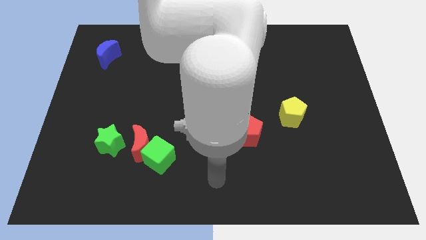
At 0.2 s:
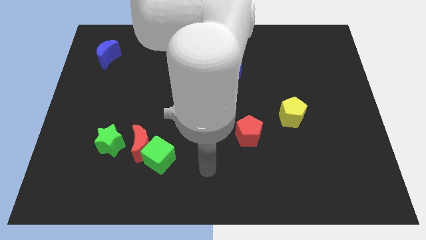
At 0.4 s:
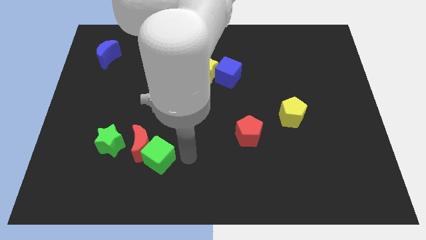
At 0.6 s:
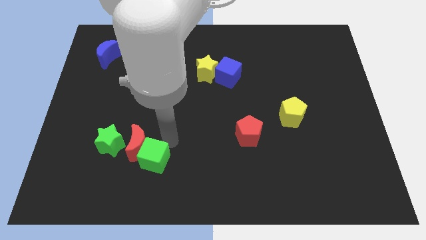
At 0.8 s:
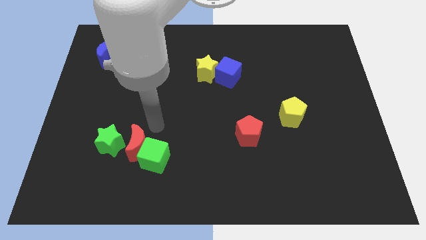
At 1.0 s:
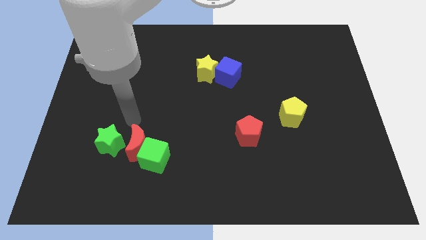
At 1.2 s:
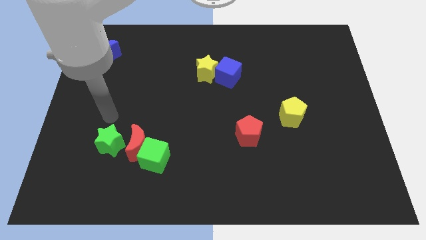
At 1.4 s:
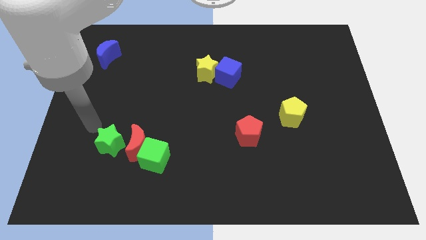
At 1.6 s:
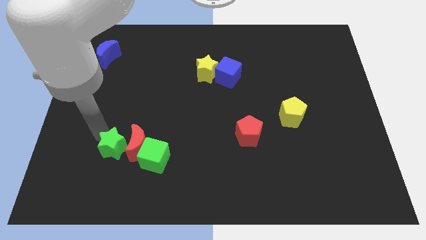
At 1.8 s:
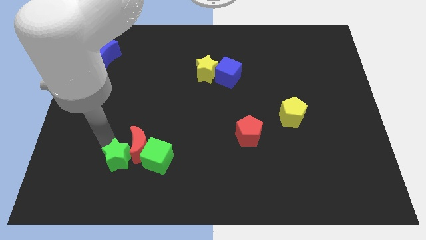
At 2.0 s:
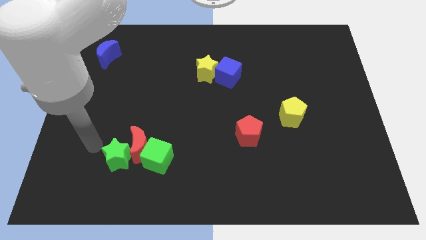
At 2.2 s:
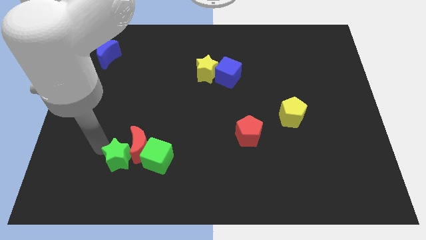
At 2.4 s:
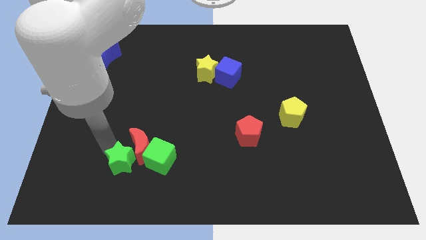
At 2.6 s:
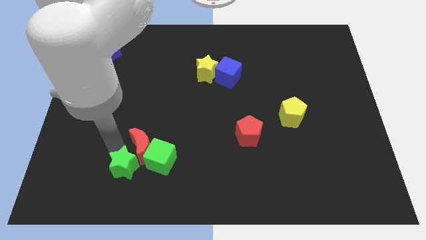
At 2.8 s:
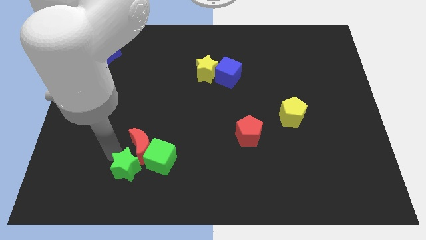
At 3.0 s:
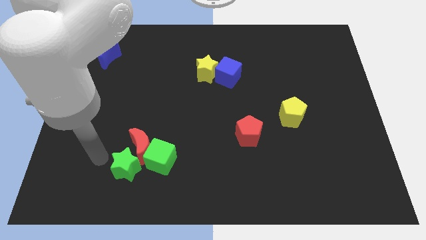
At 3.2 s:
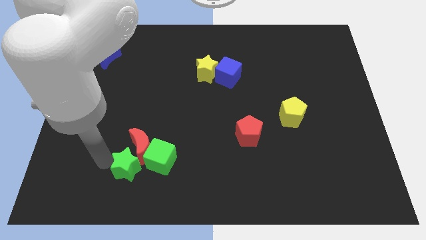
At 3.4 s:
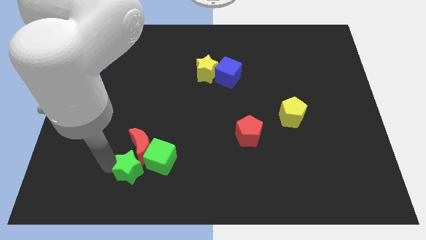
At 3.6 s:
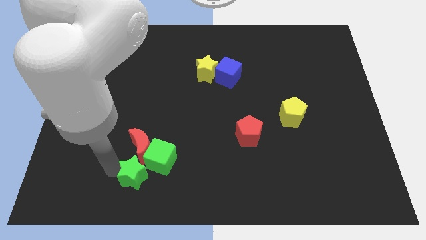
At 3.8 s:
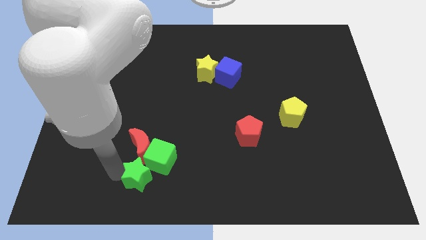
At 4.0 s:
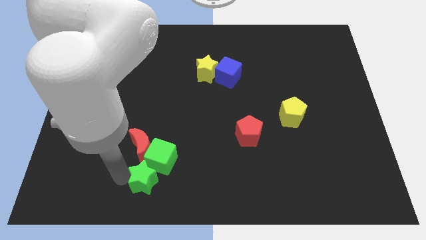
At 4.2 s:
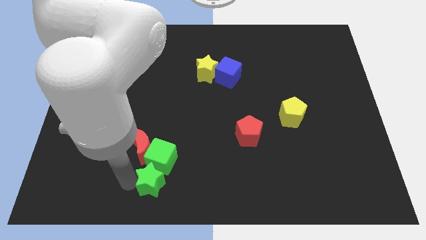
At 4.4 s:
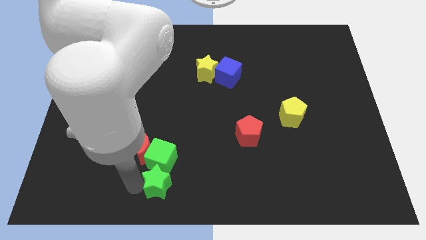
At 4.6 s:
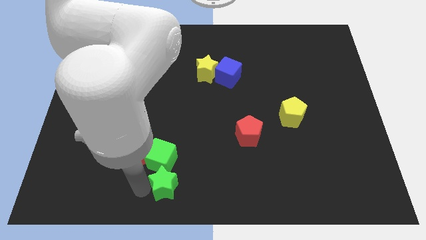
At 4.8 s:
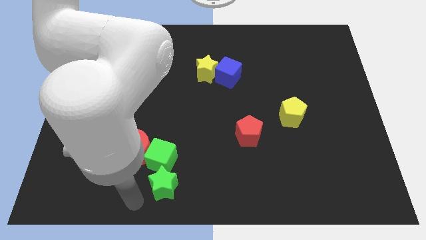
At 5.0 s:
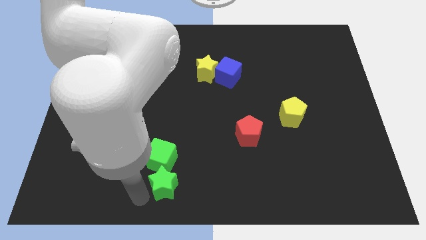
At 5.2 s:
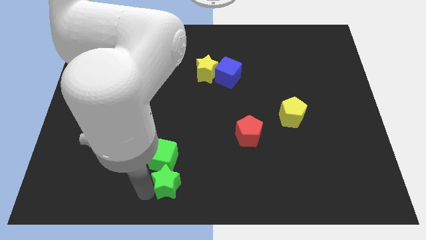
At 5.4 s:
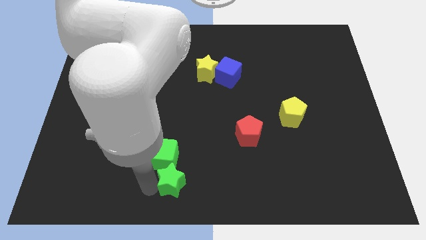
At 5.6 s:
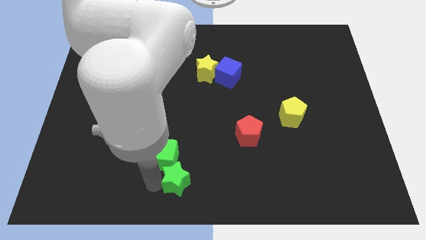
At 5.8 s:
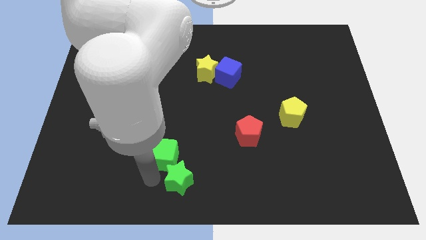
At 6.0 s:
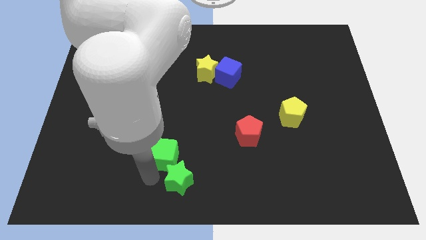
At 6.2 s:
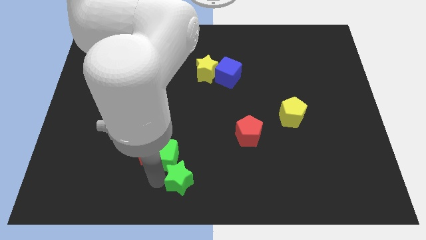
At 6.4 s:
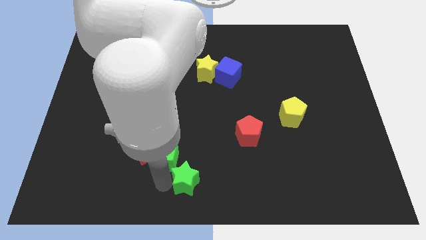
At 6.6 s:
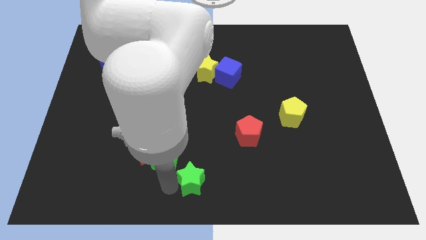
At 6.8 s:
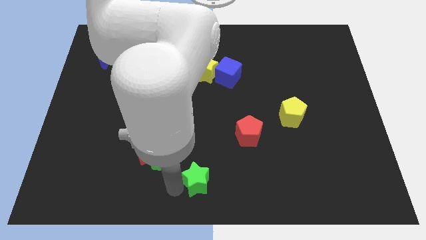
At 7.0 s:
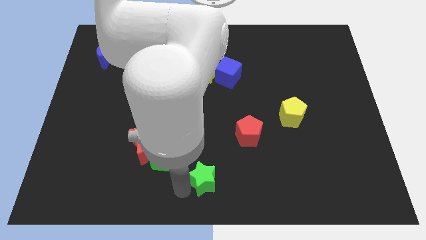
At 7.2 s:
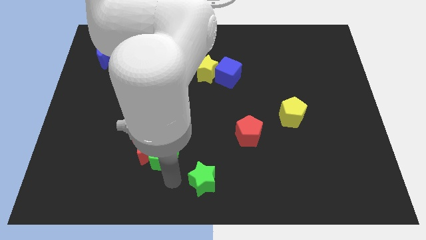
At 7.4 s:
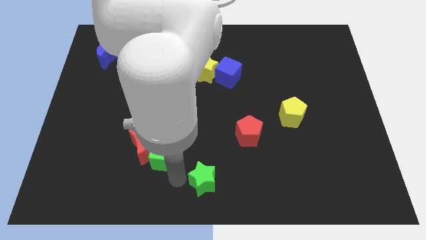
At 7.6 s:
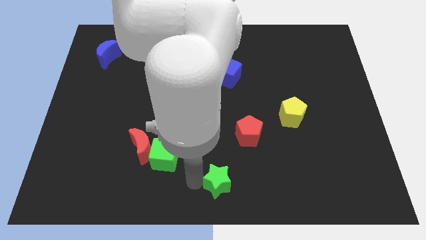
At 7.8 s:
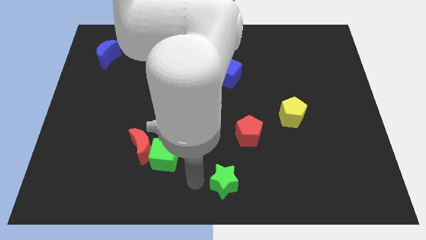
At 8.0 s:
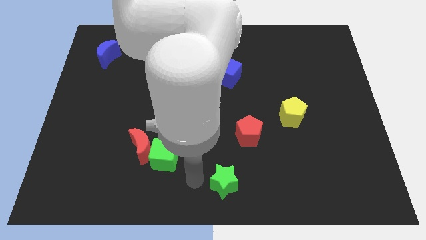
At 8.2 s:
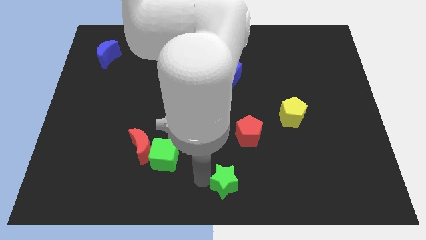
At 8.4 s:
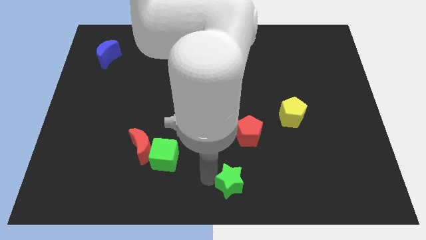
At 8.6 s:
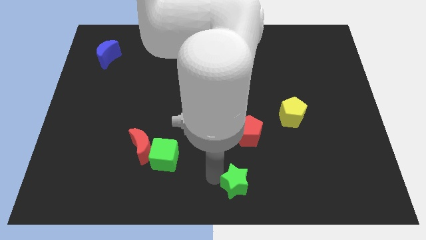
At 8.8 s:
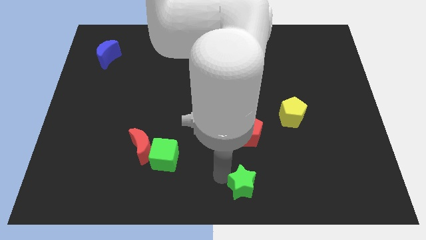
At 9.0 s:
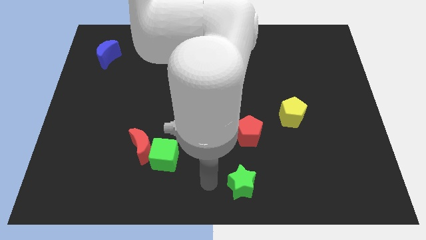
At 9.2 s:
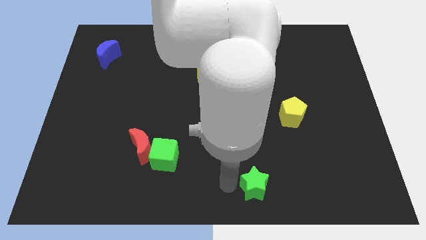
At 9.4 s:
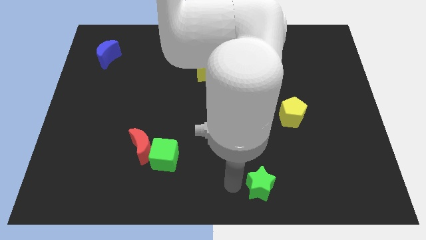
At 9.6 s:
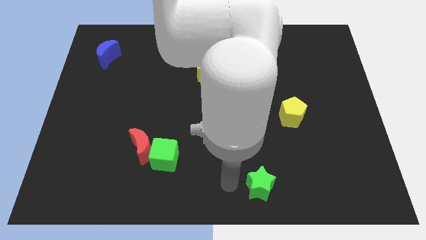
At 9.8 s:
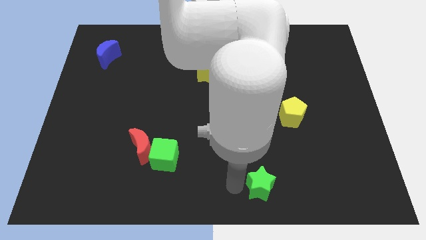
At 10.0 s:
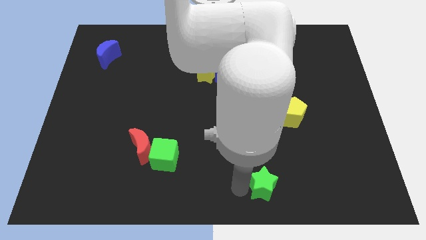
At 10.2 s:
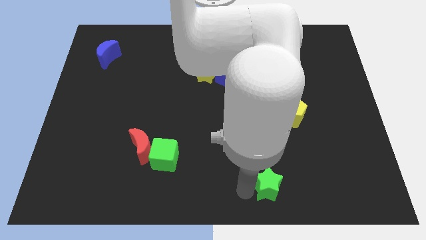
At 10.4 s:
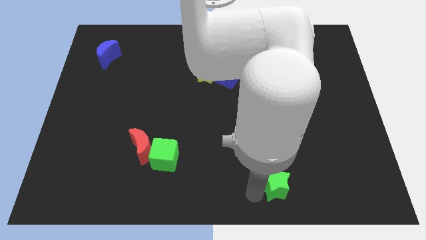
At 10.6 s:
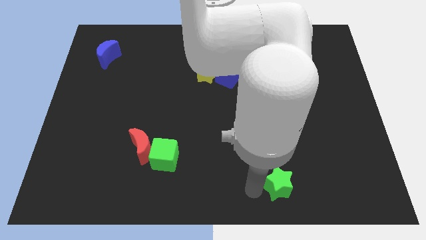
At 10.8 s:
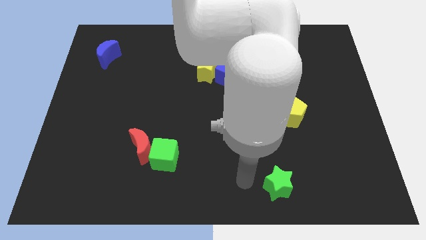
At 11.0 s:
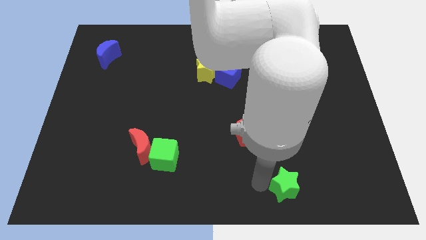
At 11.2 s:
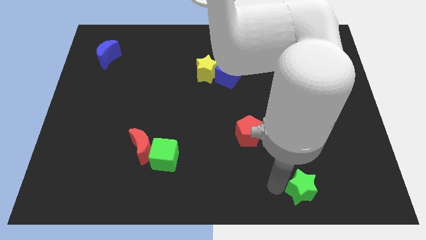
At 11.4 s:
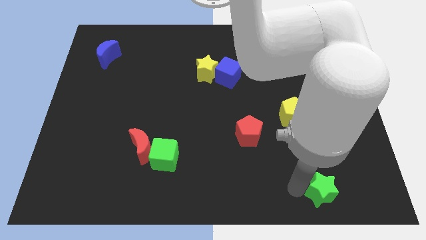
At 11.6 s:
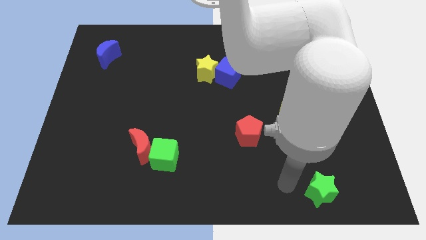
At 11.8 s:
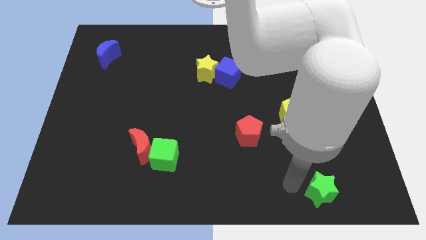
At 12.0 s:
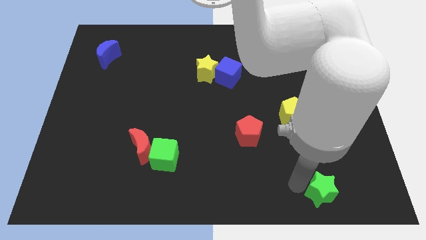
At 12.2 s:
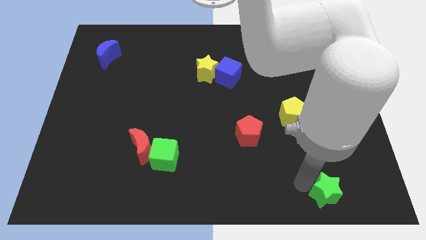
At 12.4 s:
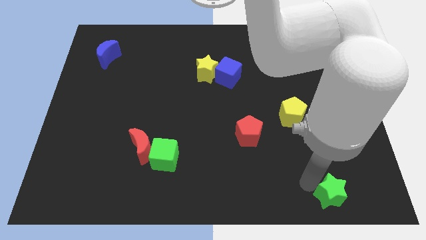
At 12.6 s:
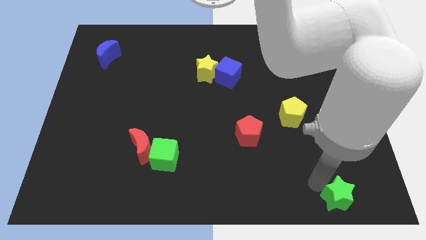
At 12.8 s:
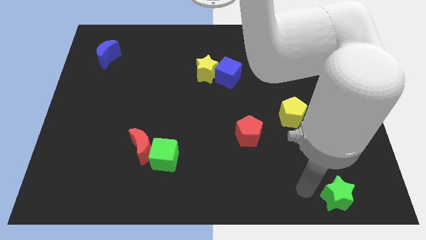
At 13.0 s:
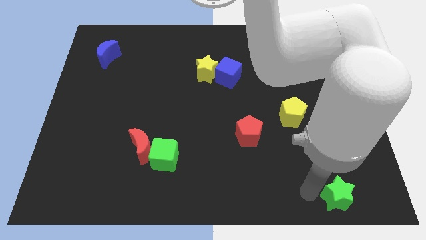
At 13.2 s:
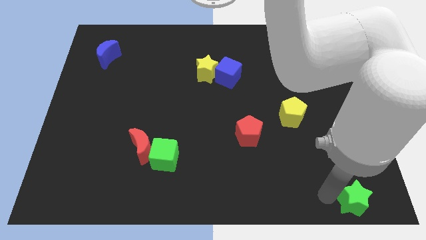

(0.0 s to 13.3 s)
put the green star to the bottom right corner
